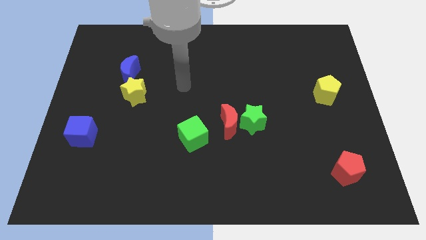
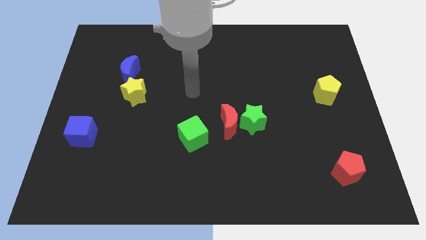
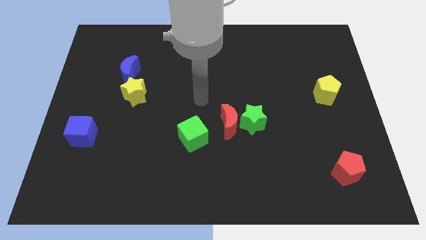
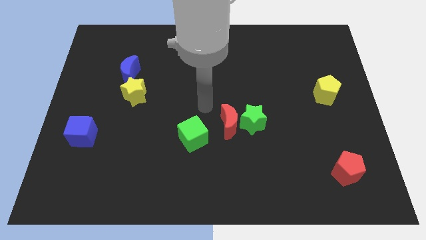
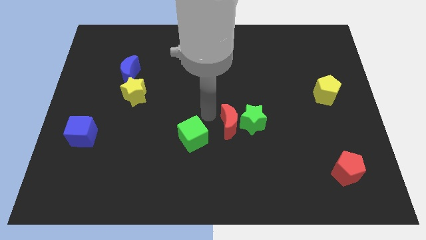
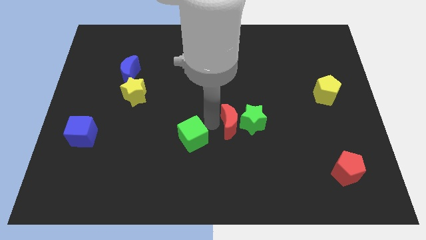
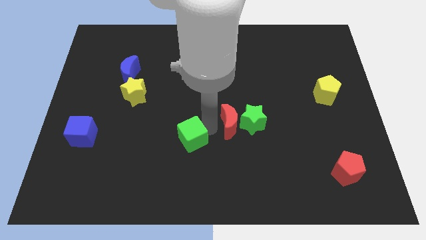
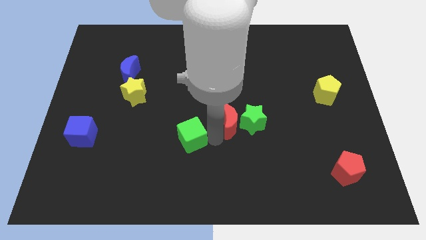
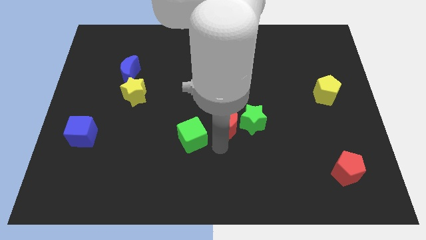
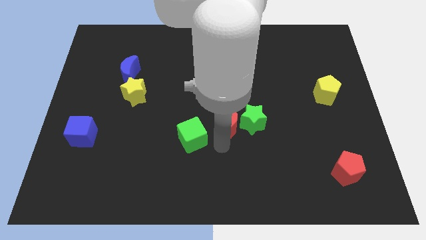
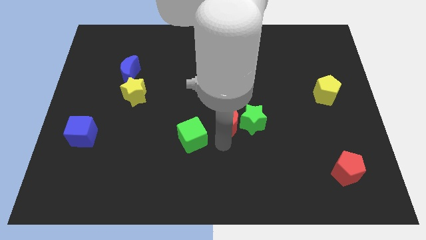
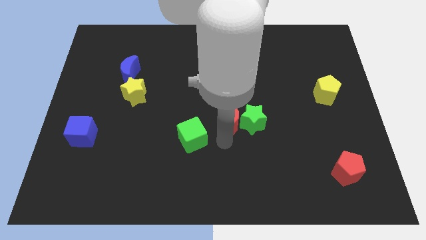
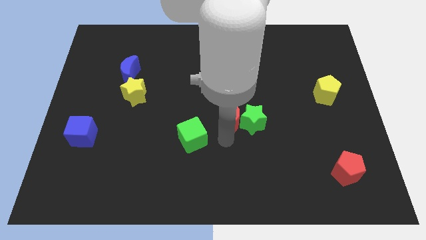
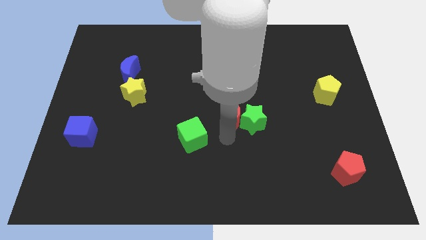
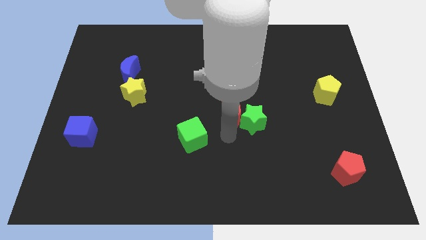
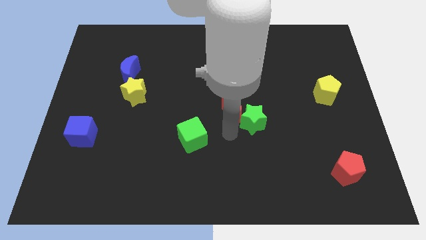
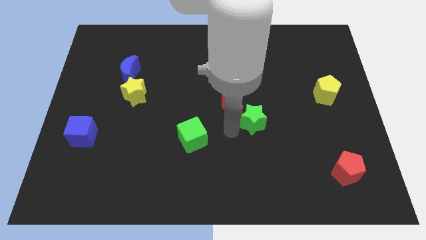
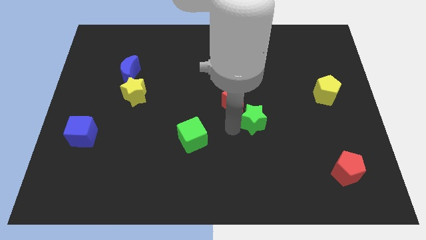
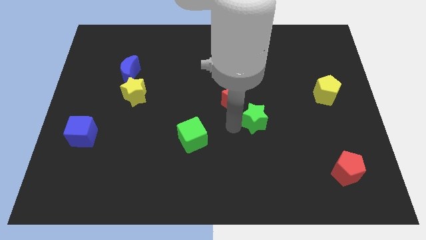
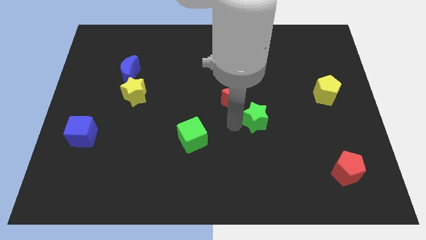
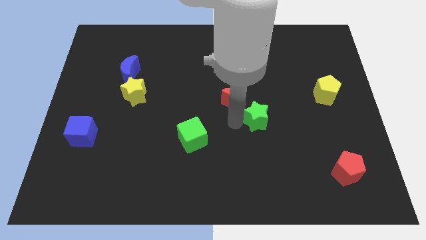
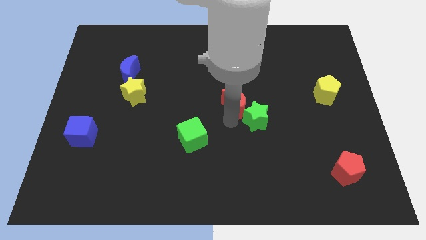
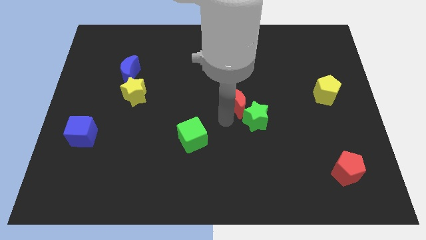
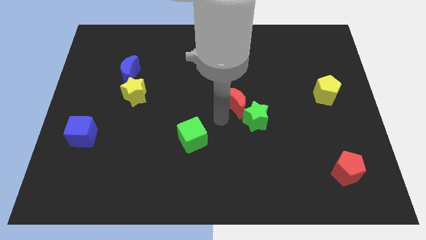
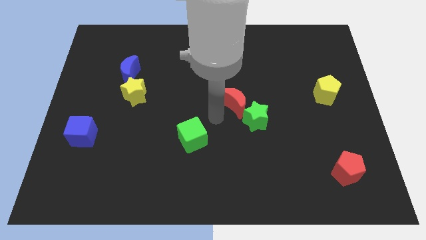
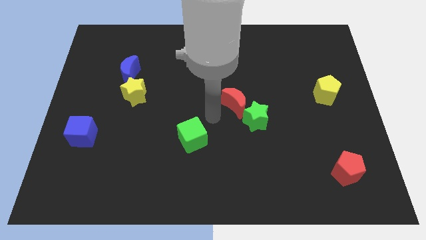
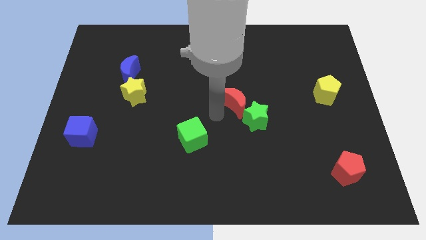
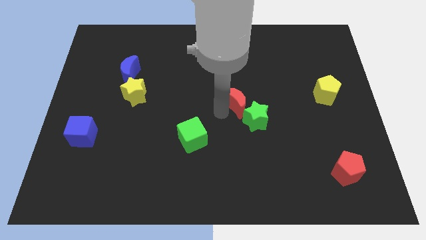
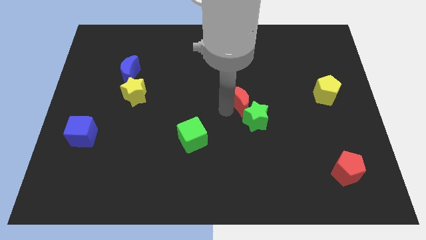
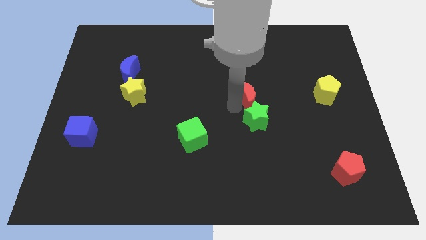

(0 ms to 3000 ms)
push the red moon up and then right a little

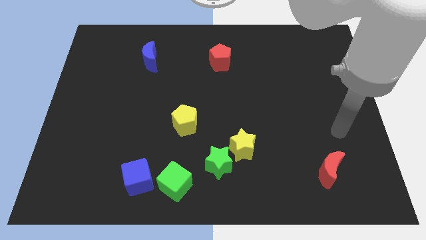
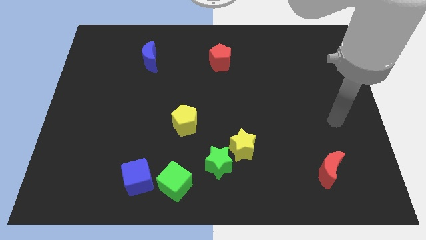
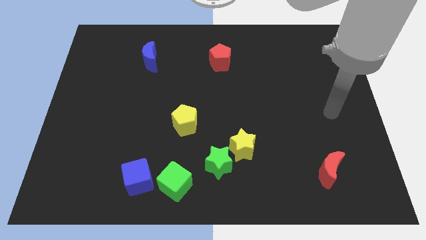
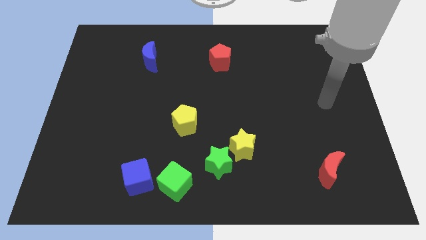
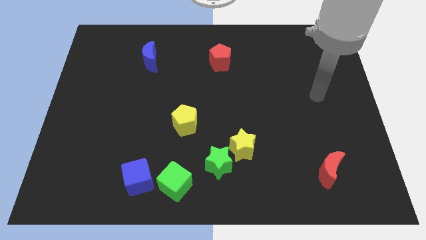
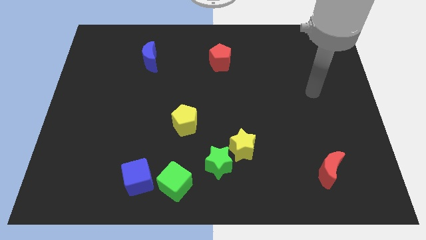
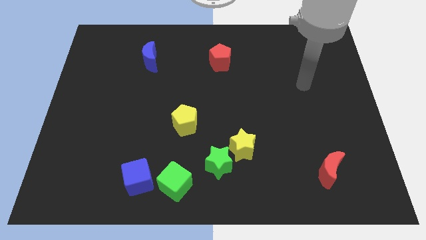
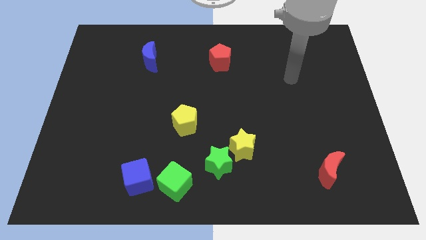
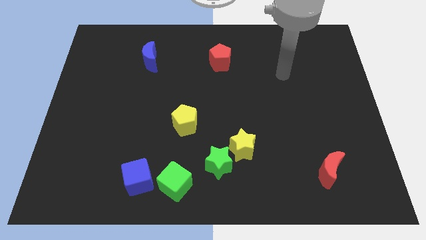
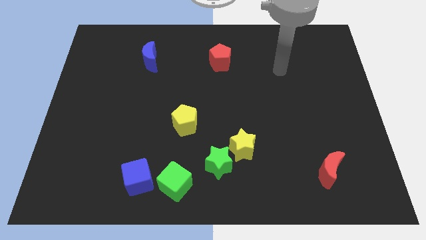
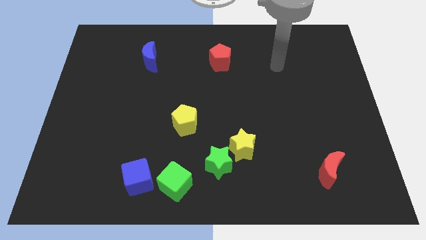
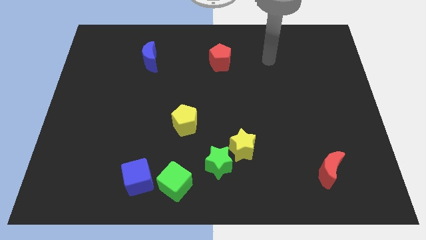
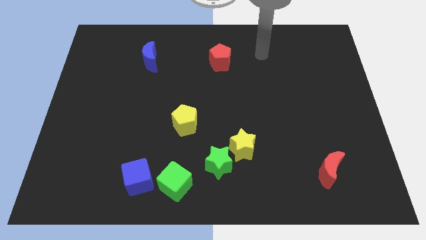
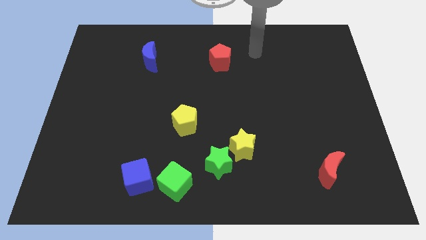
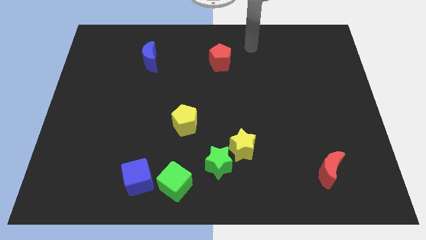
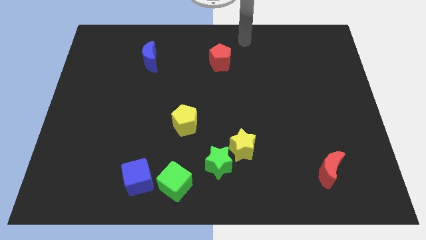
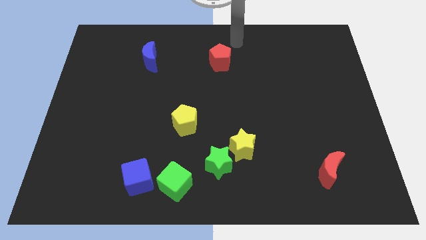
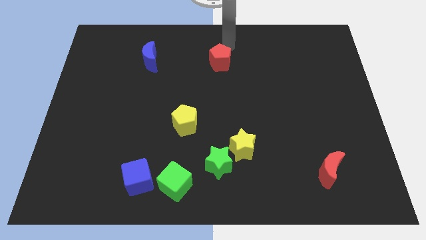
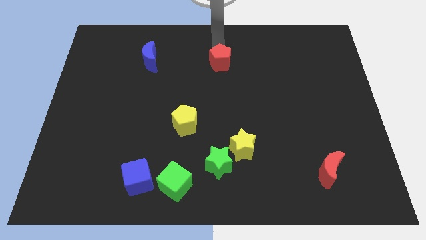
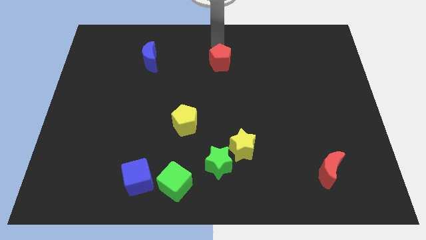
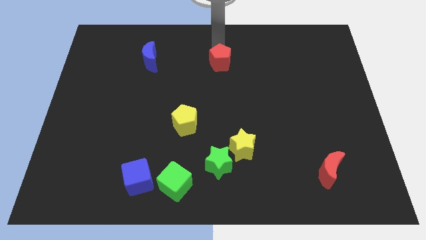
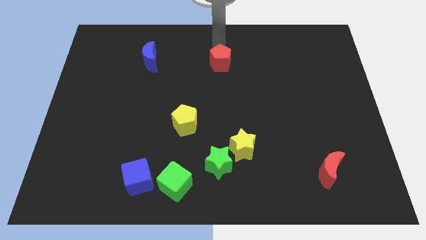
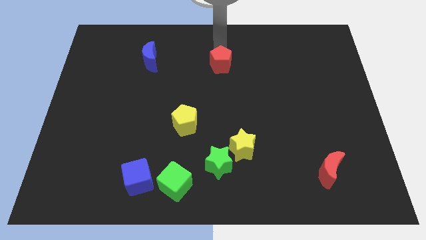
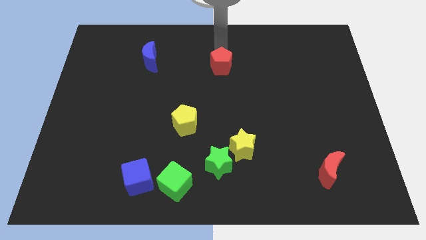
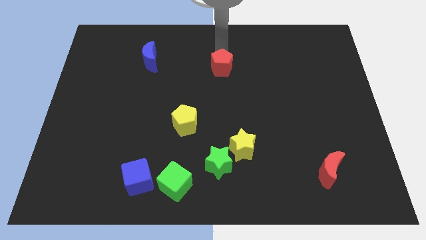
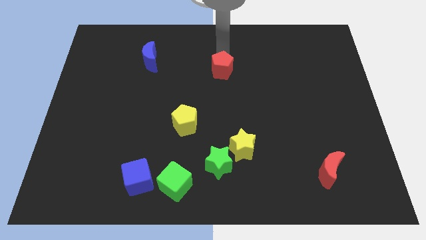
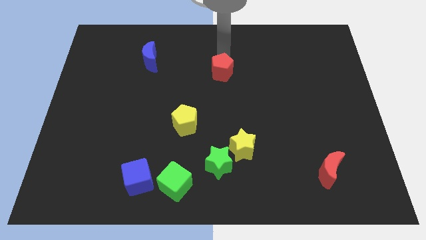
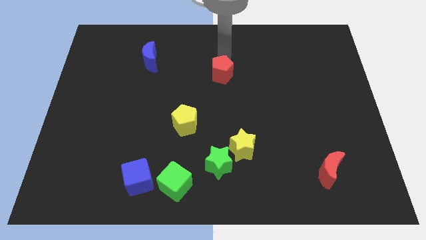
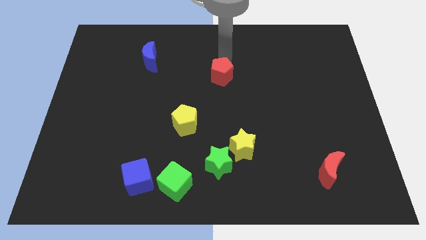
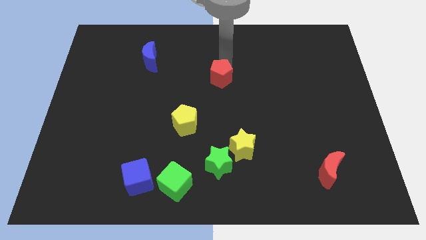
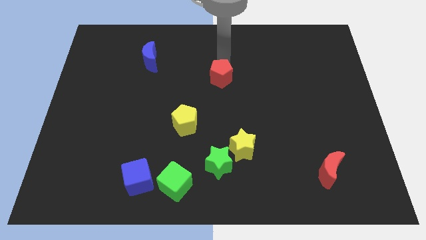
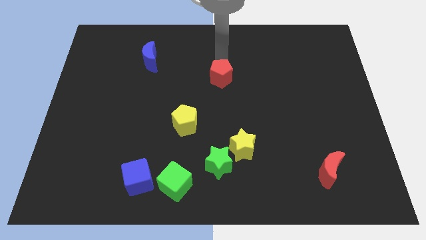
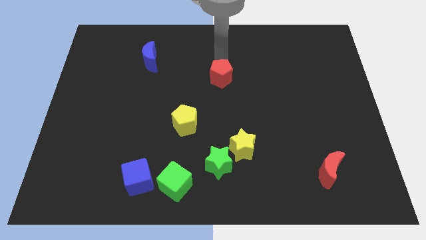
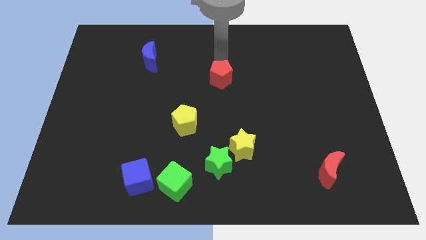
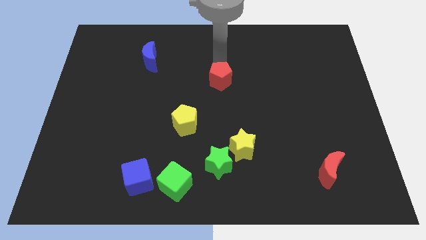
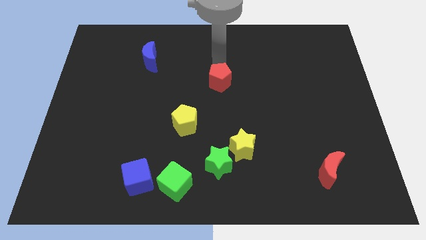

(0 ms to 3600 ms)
move the red pentagon downwards a little bit

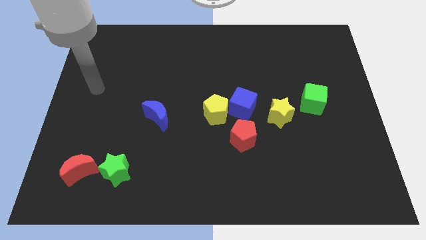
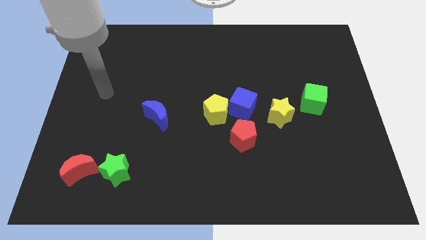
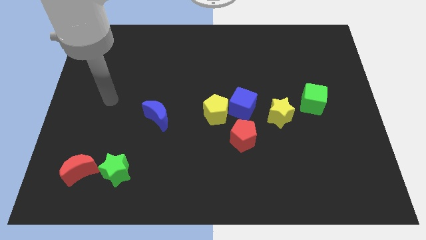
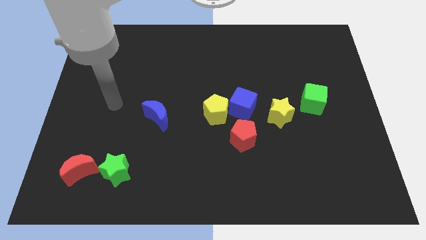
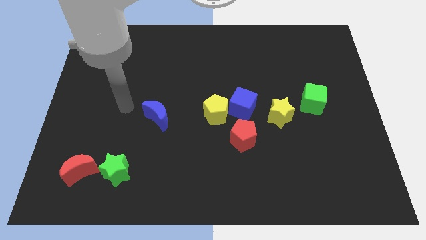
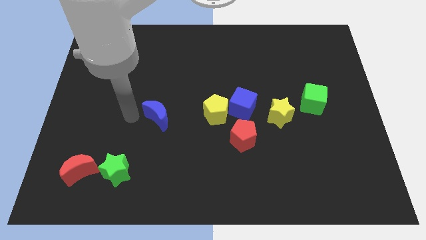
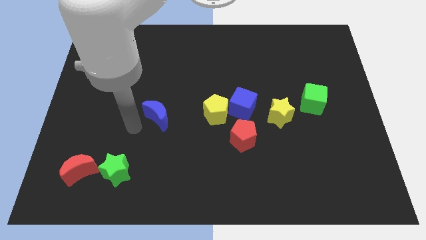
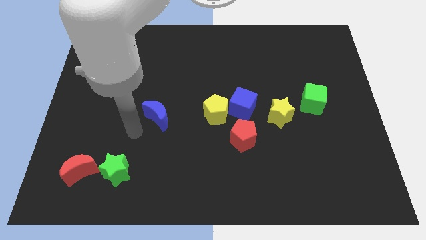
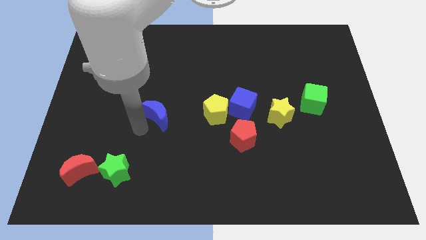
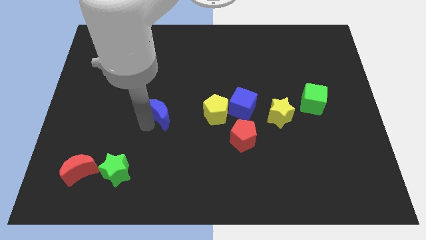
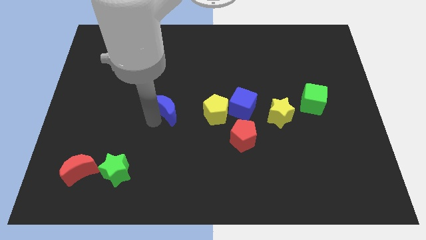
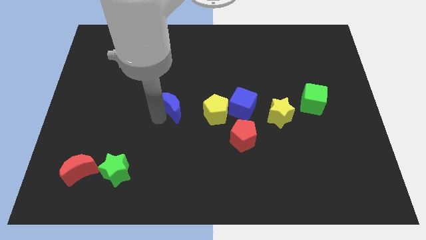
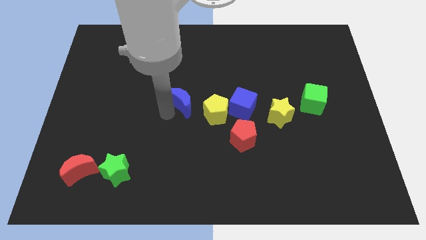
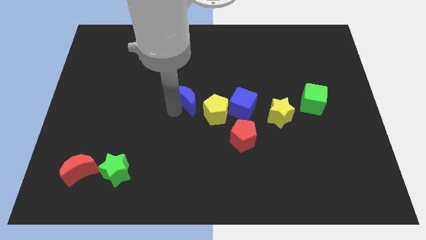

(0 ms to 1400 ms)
slide the blue moon a little bit up and right diagonally

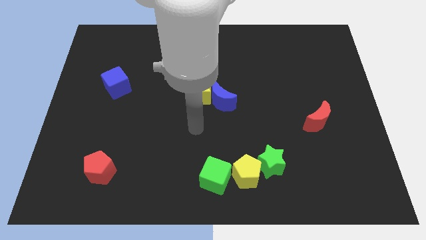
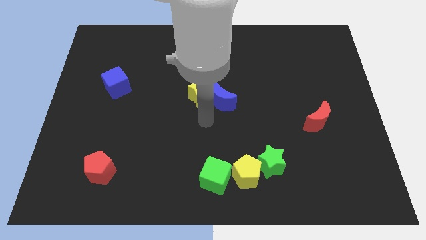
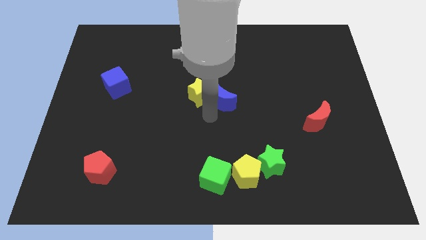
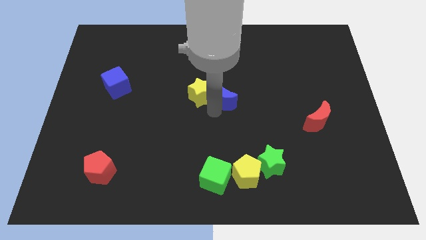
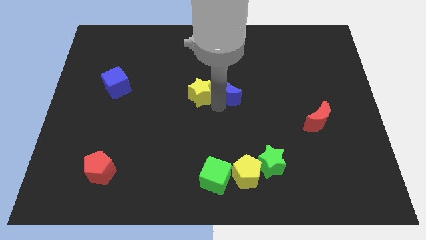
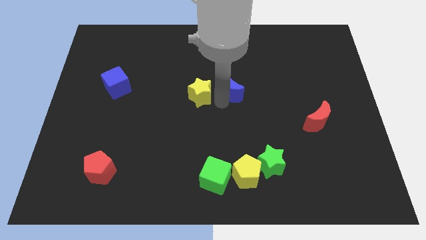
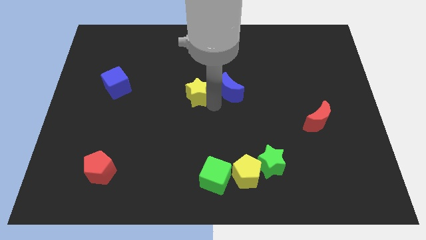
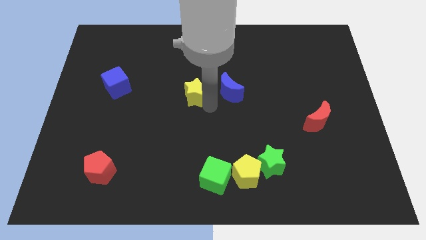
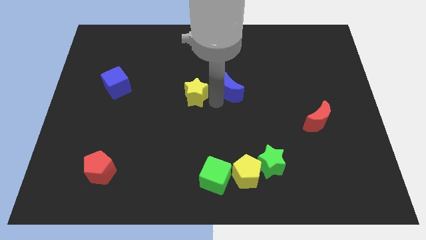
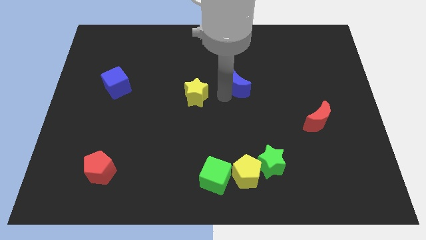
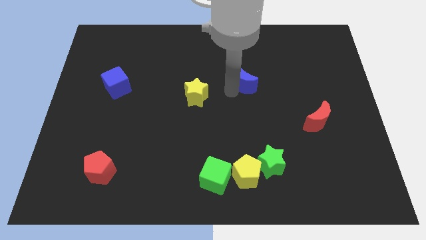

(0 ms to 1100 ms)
move the blue moon up and then right slightly
